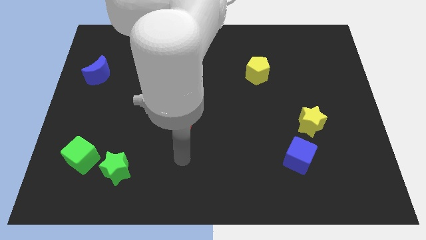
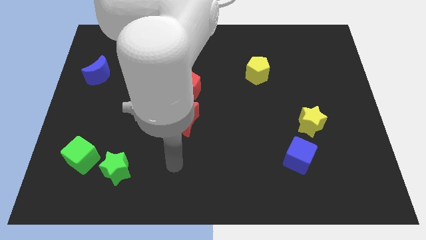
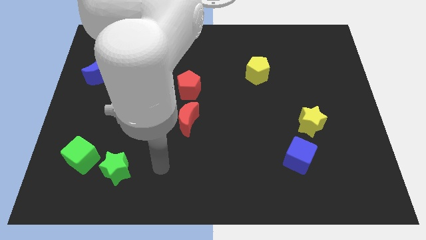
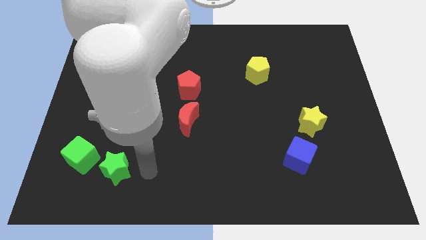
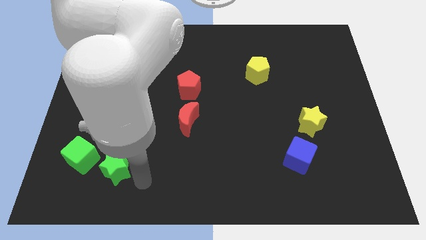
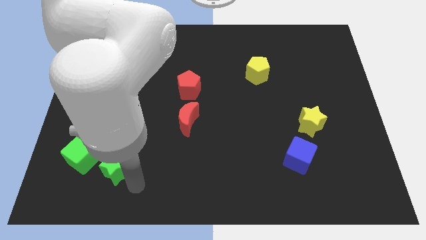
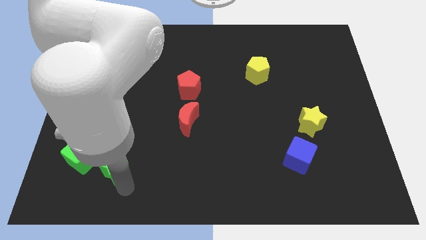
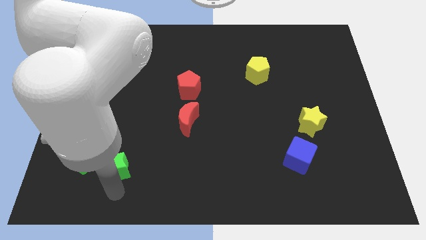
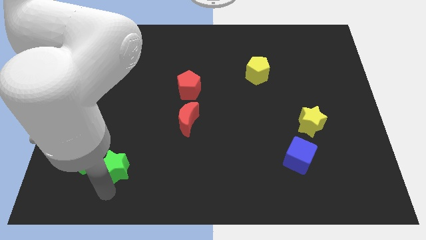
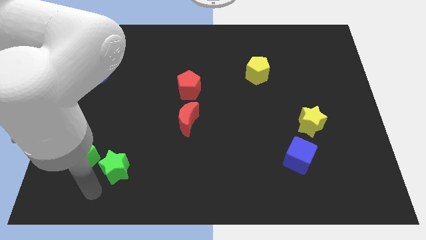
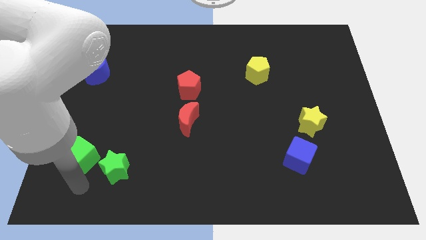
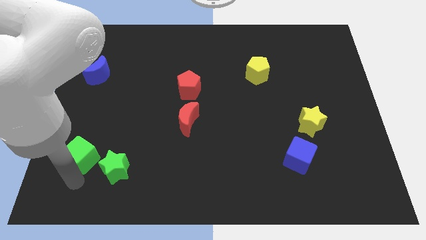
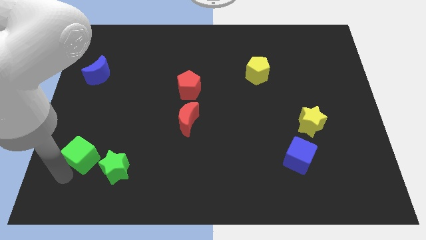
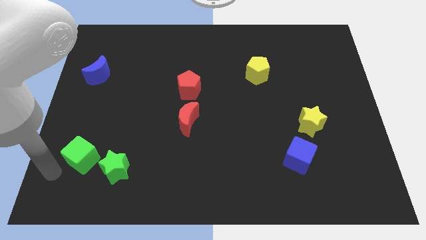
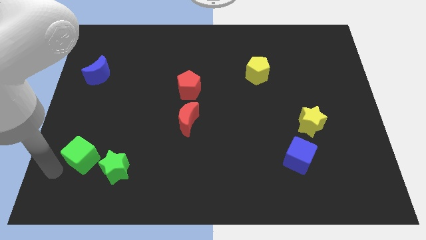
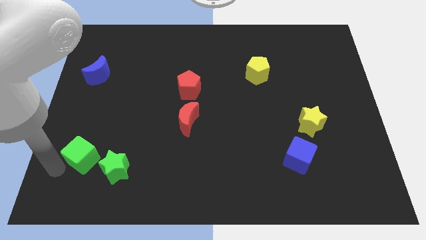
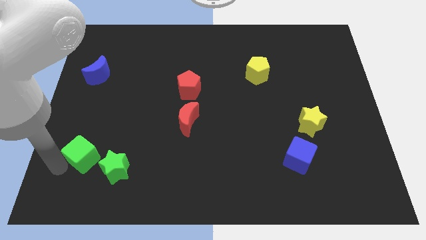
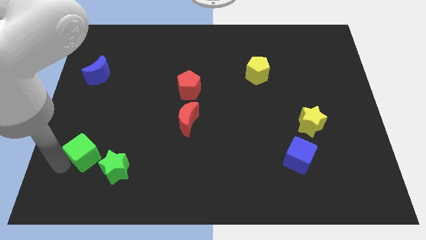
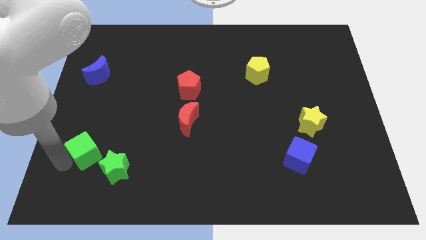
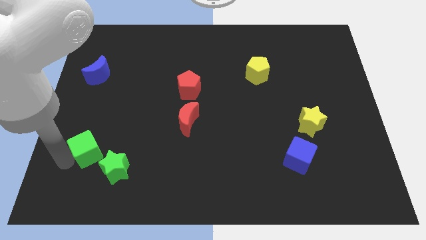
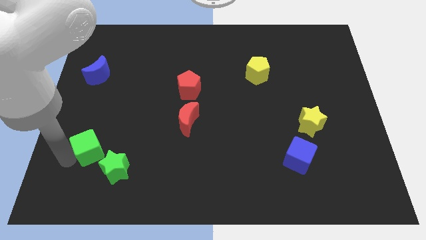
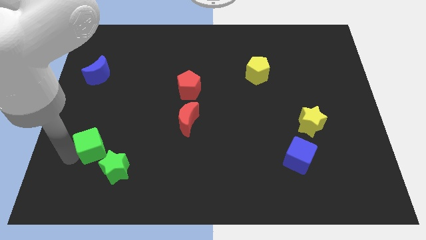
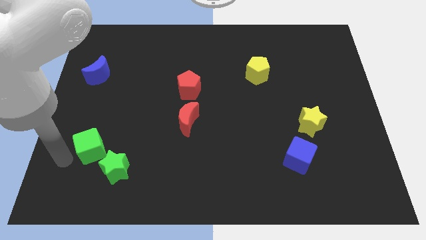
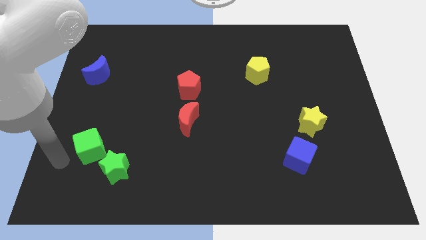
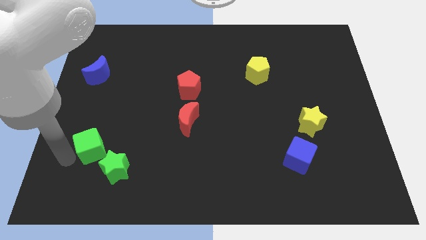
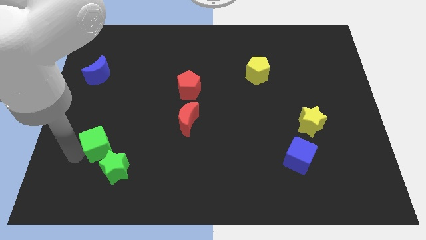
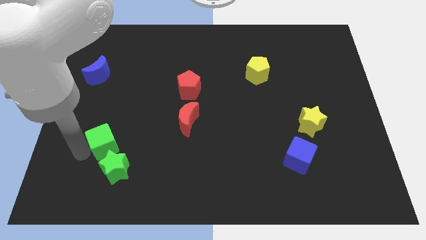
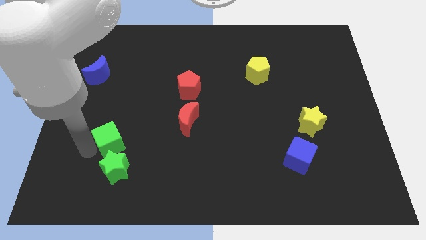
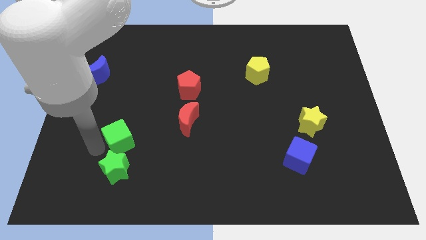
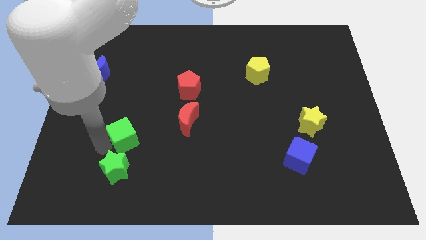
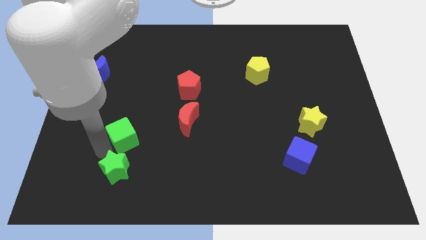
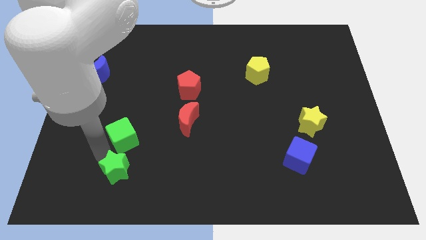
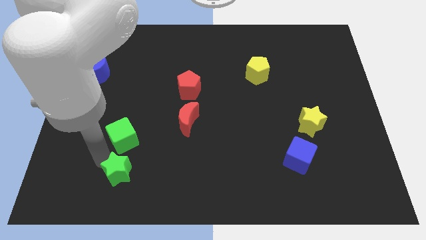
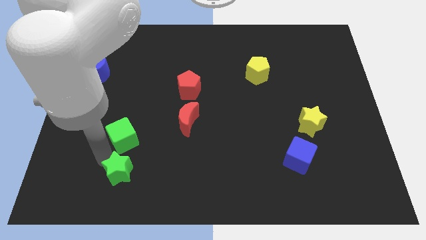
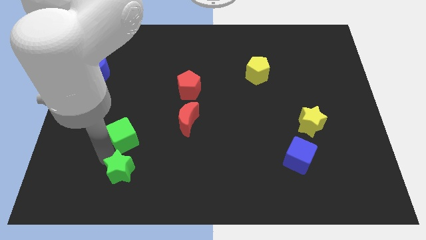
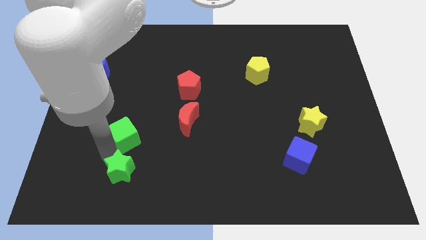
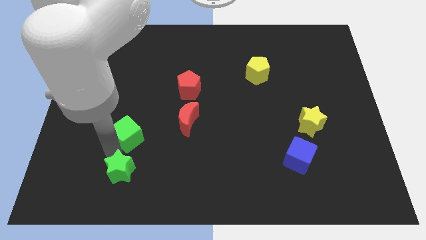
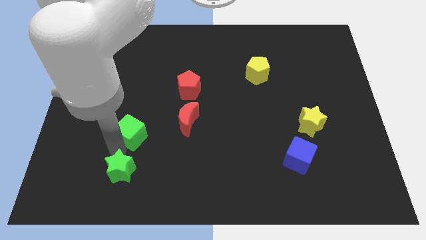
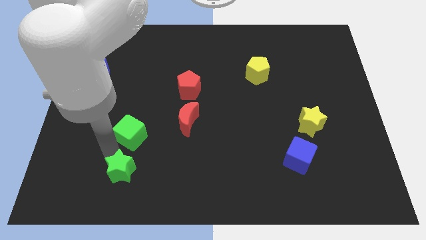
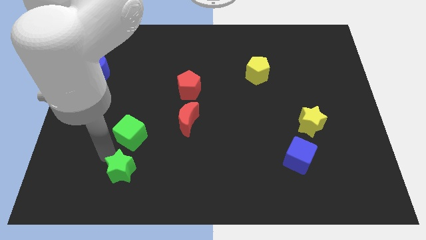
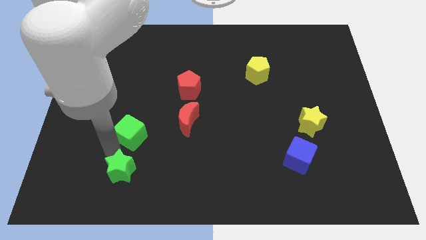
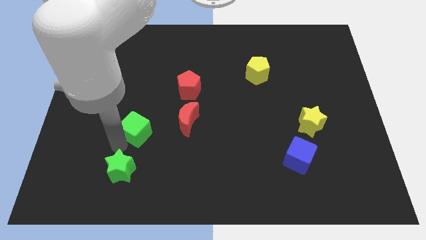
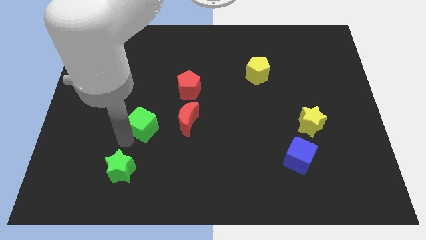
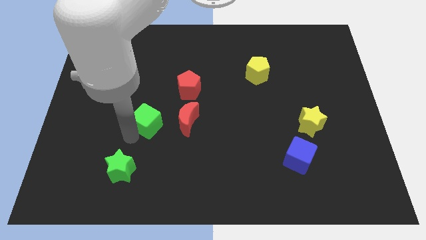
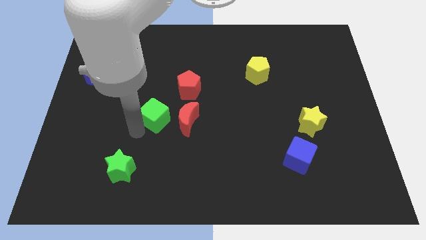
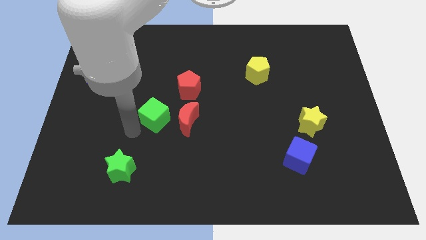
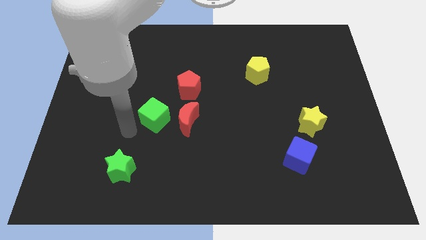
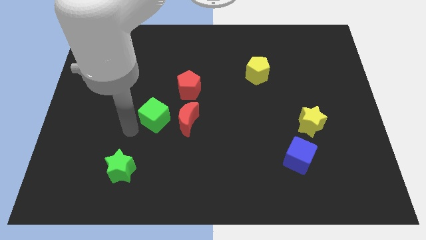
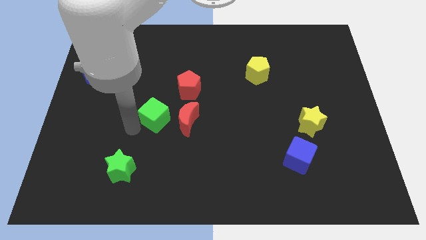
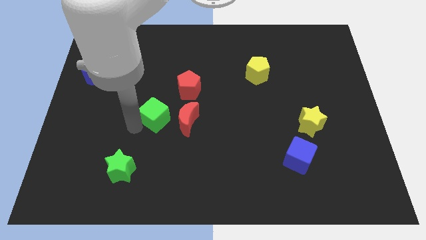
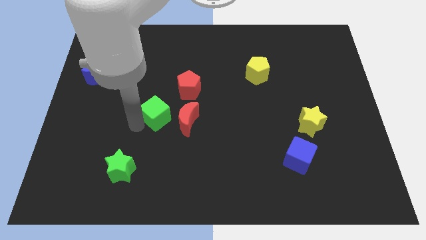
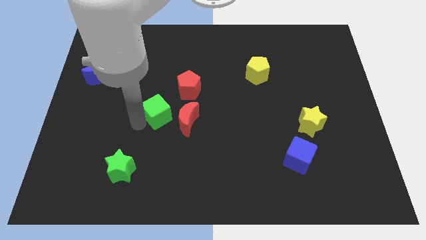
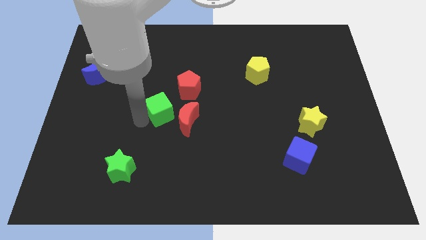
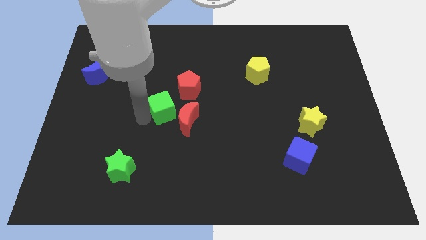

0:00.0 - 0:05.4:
move the green cube to the middle of the board

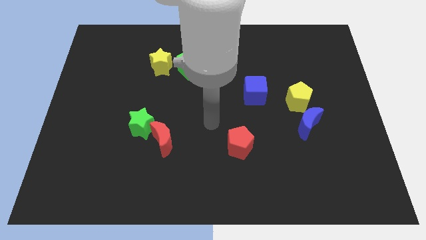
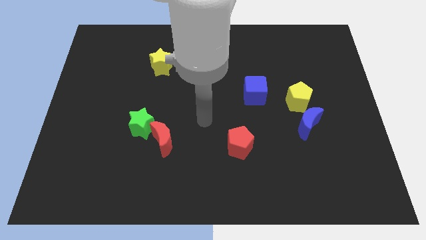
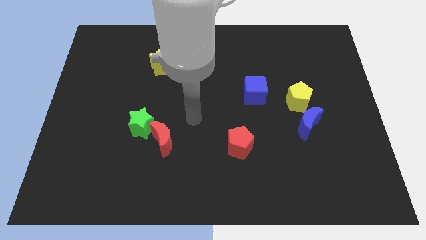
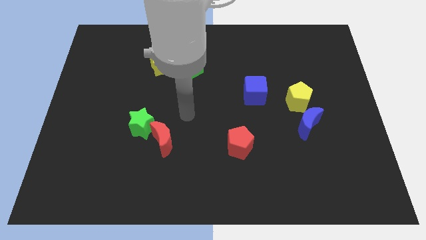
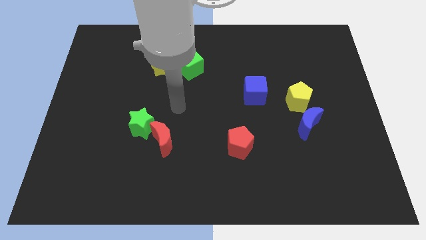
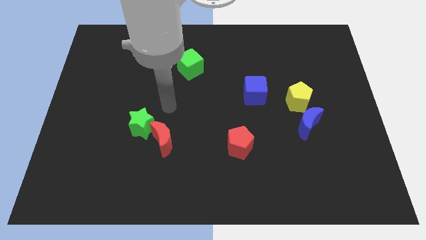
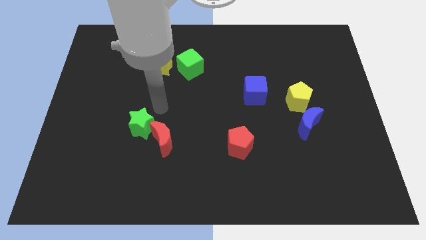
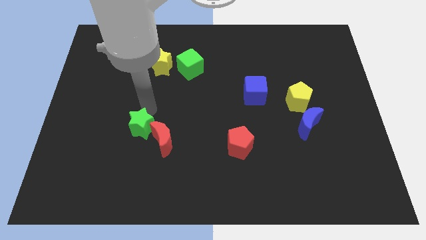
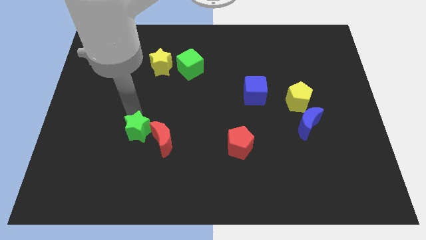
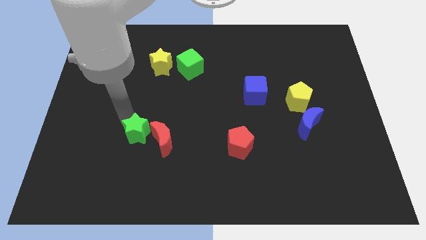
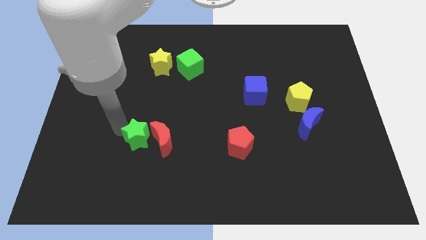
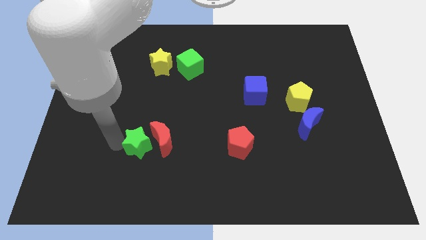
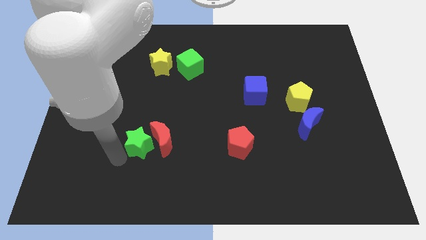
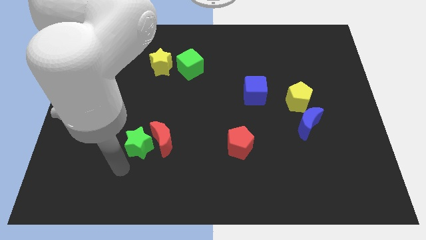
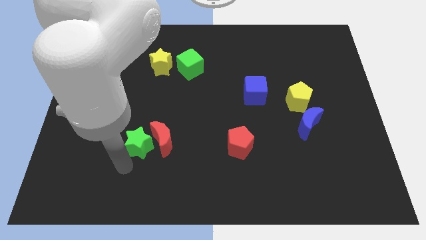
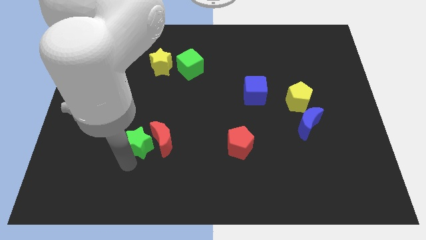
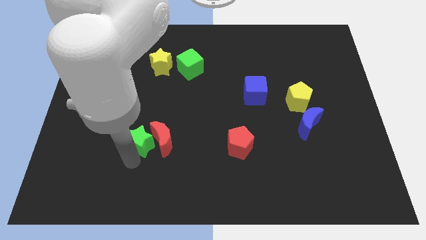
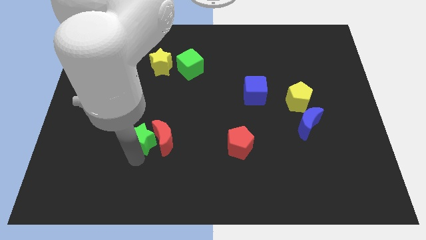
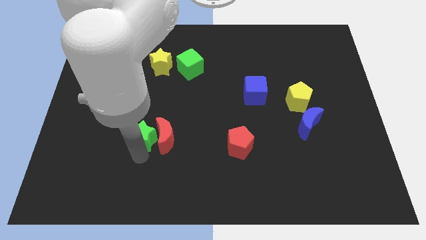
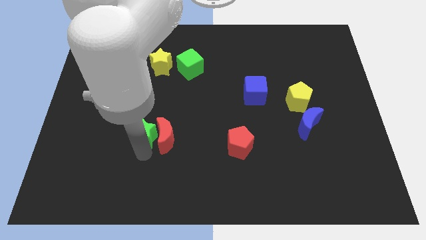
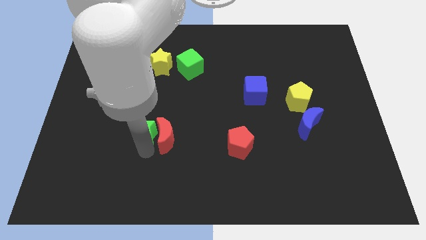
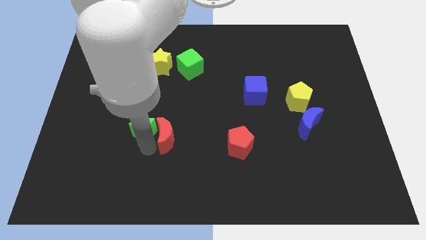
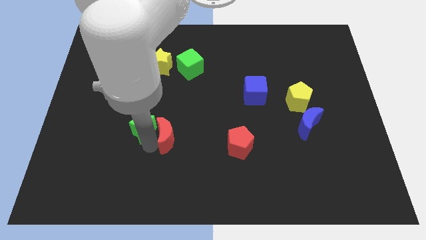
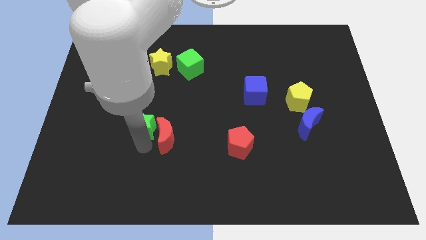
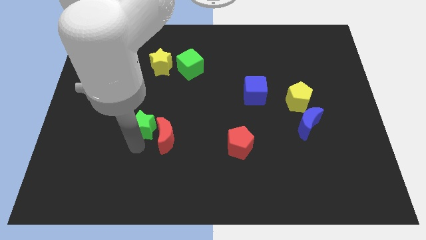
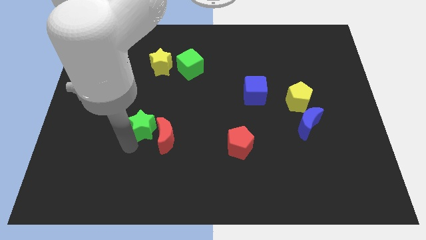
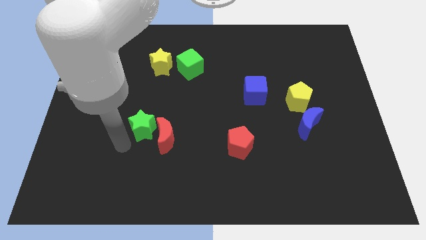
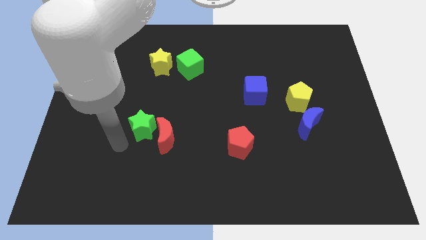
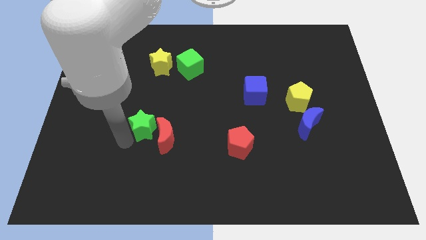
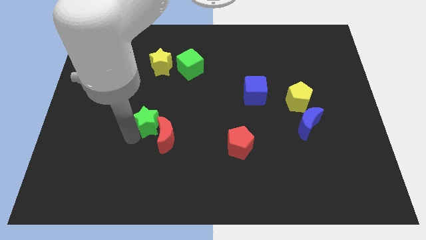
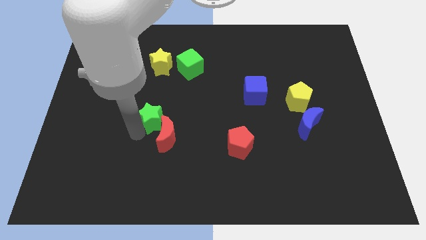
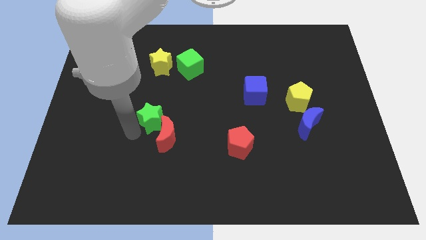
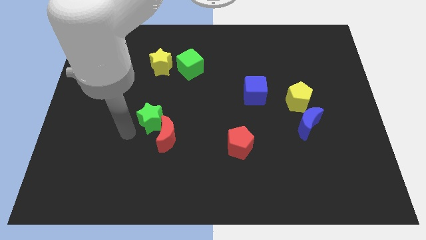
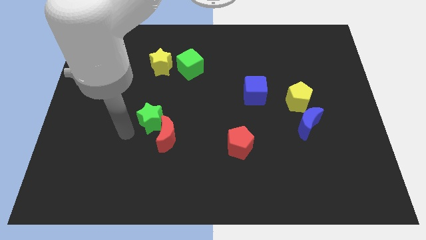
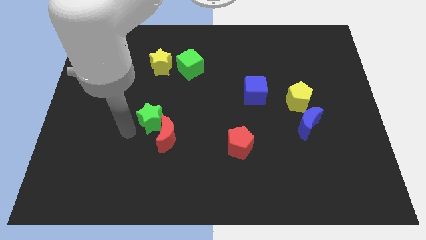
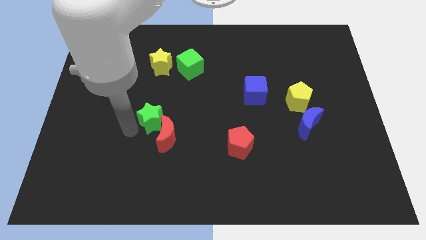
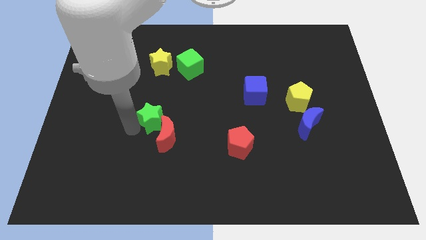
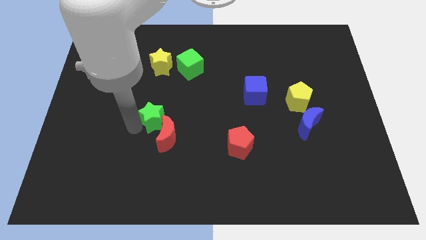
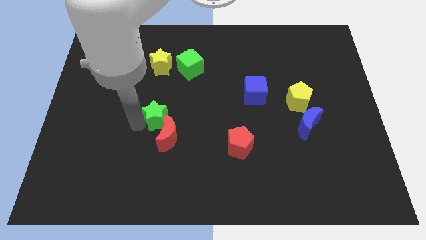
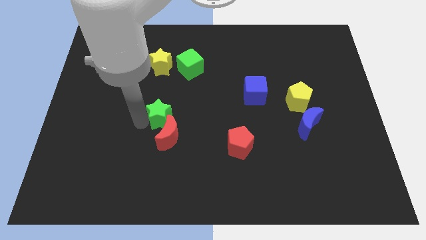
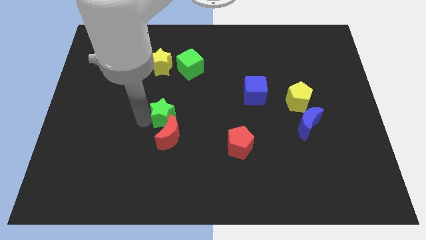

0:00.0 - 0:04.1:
slide the green star to the center
